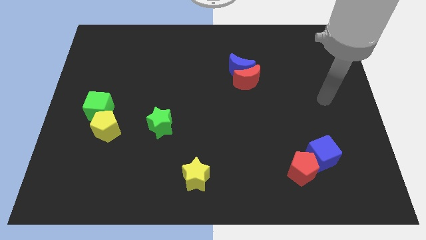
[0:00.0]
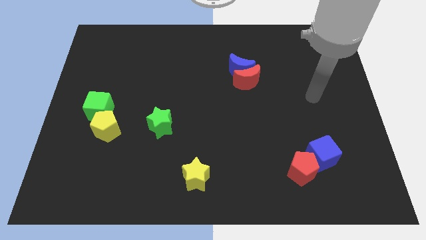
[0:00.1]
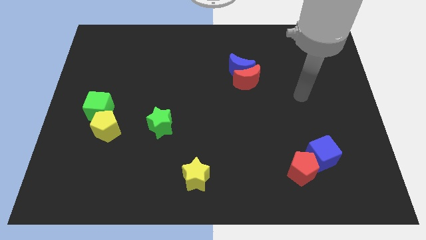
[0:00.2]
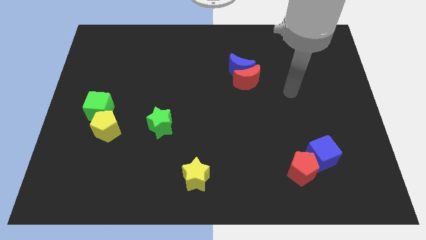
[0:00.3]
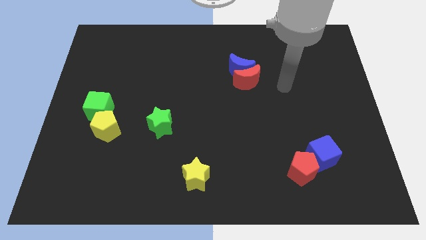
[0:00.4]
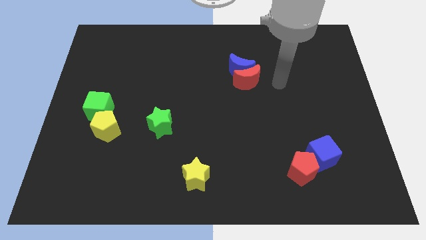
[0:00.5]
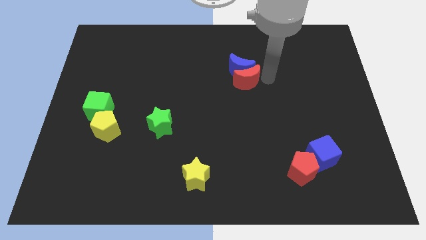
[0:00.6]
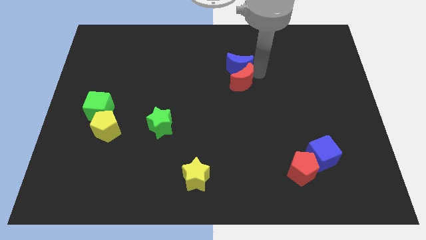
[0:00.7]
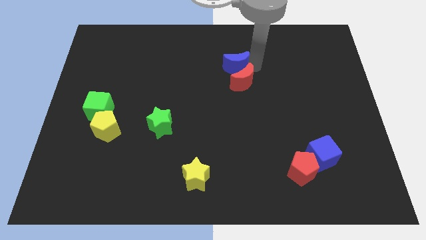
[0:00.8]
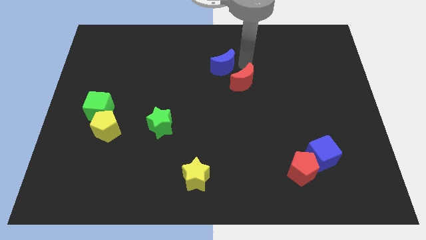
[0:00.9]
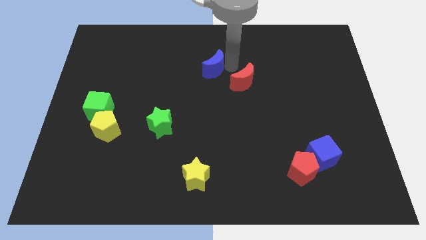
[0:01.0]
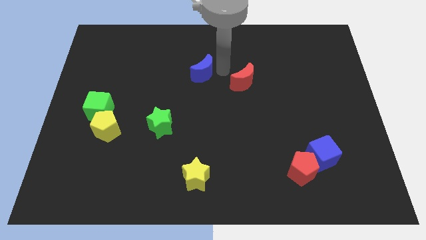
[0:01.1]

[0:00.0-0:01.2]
pull the red moon apart from the blue moon

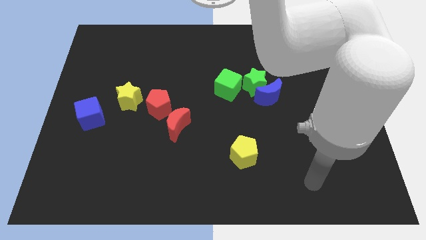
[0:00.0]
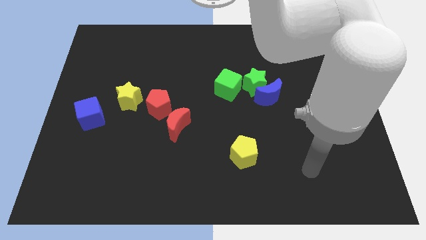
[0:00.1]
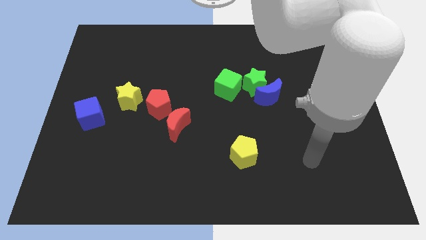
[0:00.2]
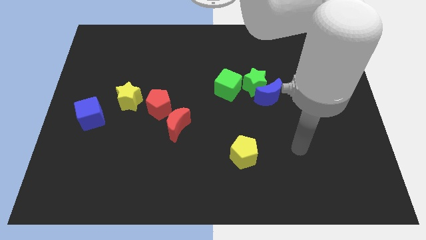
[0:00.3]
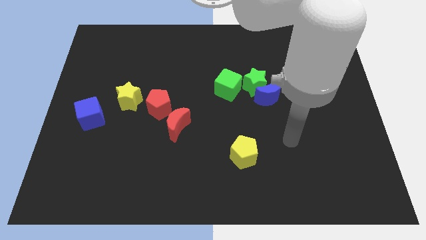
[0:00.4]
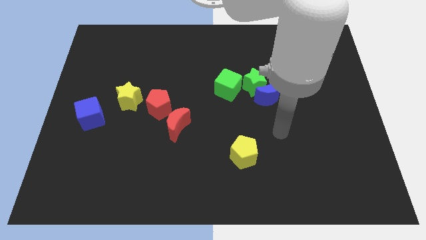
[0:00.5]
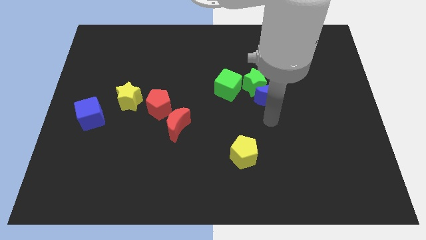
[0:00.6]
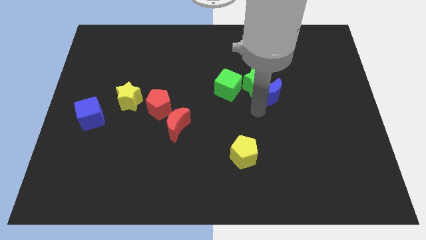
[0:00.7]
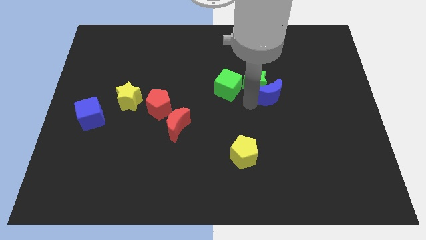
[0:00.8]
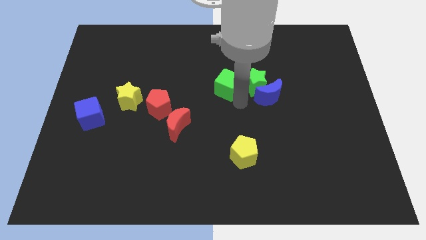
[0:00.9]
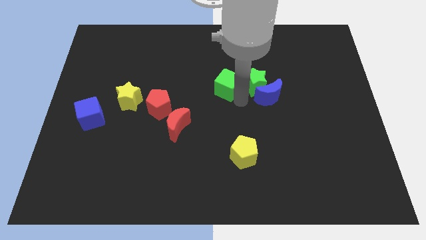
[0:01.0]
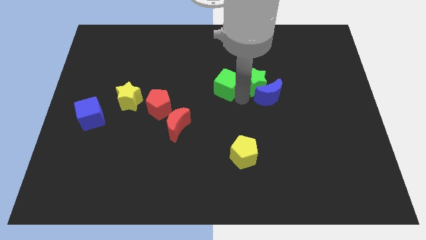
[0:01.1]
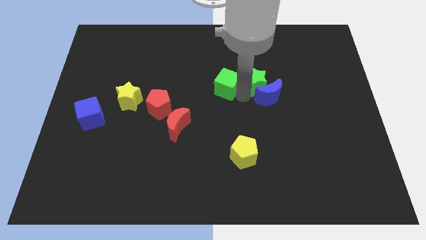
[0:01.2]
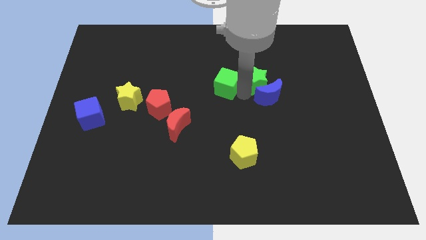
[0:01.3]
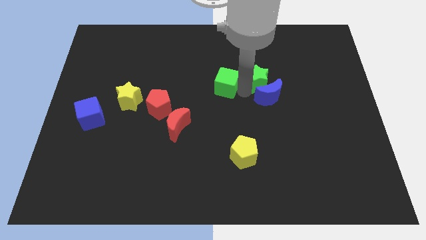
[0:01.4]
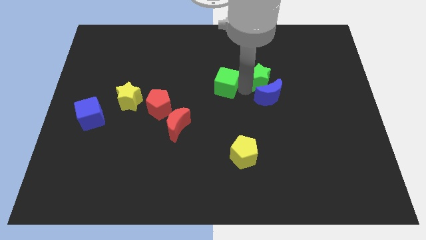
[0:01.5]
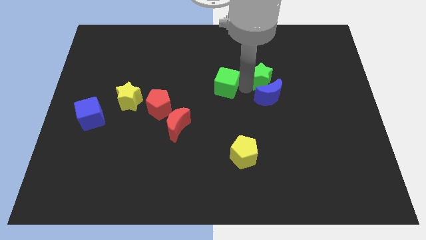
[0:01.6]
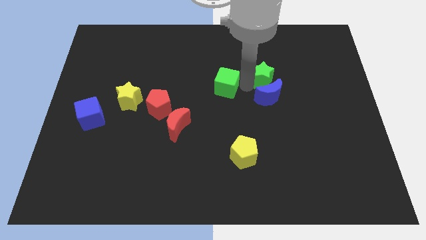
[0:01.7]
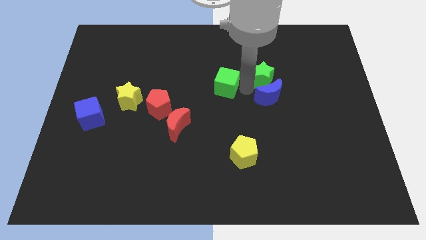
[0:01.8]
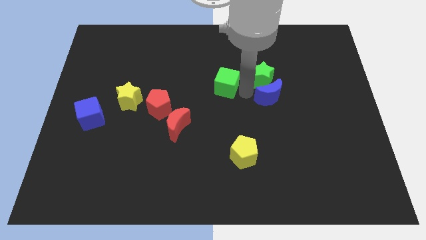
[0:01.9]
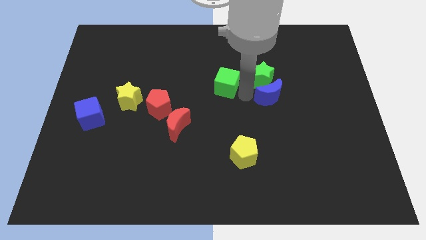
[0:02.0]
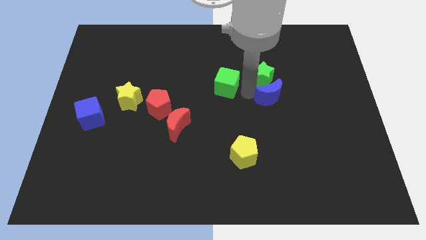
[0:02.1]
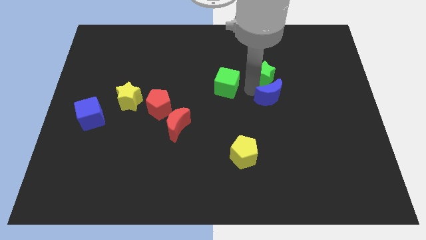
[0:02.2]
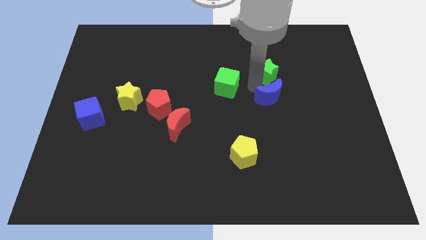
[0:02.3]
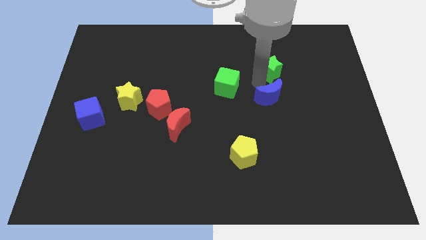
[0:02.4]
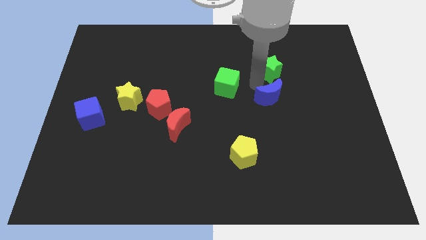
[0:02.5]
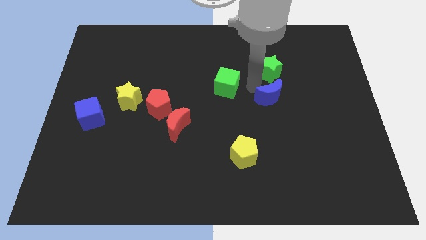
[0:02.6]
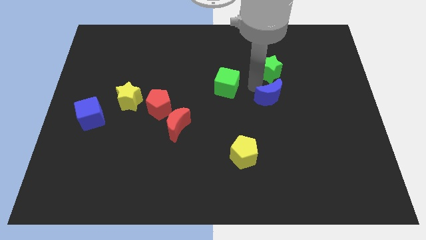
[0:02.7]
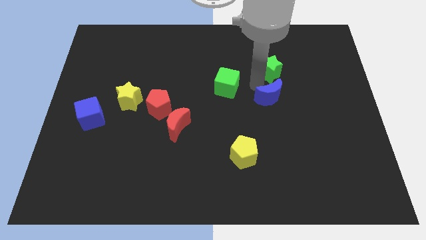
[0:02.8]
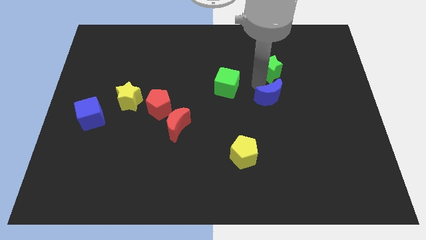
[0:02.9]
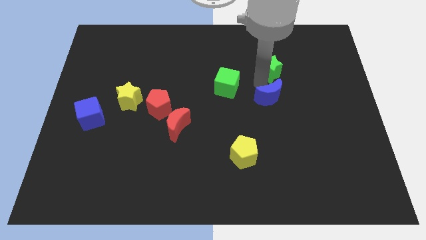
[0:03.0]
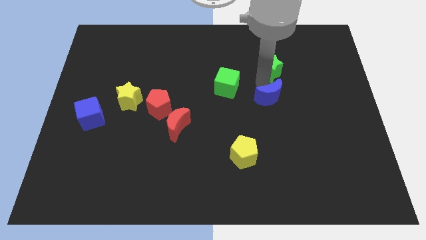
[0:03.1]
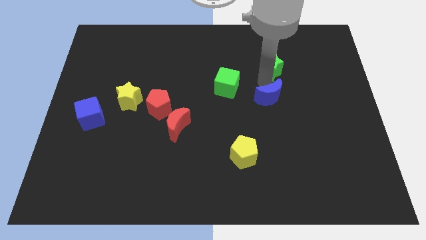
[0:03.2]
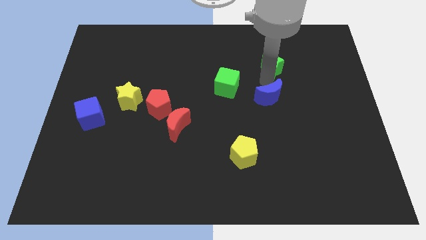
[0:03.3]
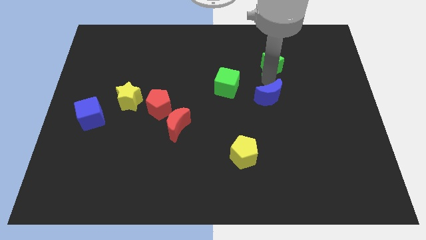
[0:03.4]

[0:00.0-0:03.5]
move the green star away from the blue moon and green cube

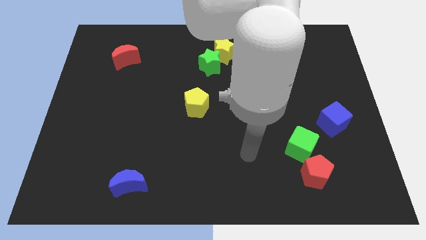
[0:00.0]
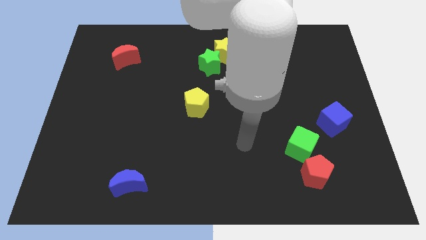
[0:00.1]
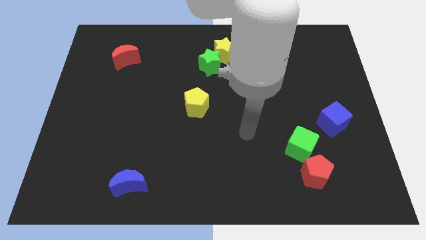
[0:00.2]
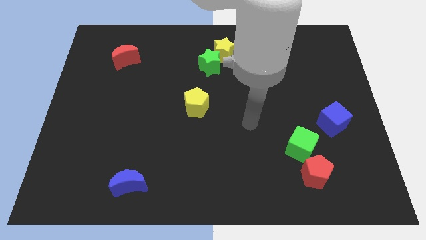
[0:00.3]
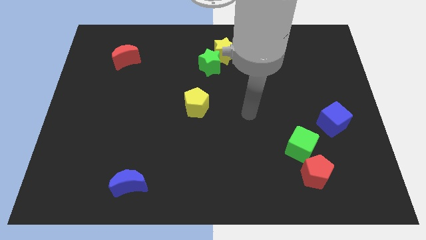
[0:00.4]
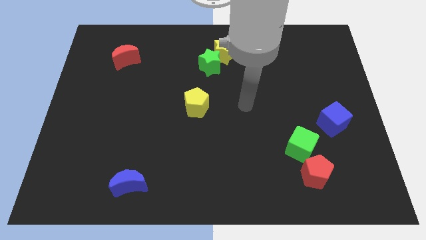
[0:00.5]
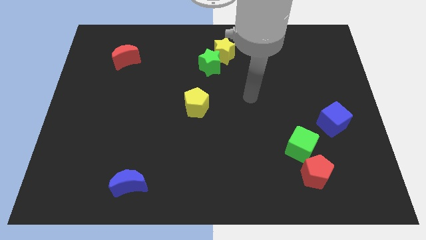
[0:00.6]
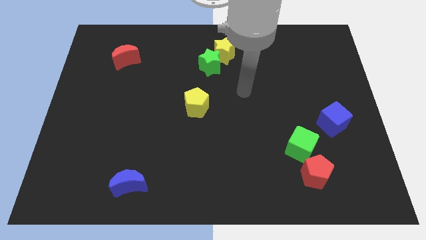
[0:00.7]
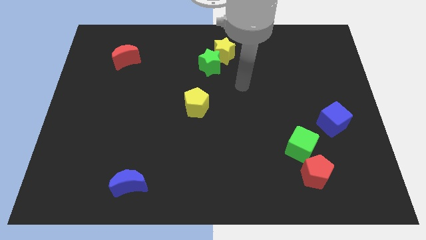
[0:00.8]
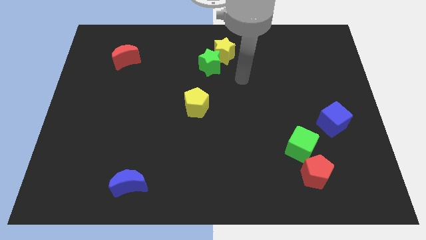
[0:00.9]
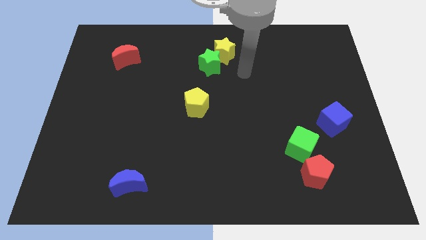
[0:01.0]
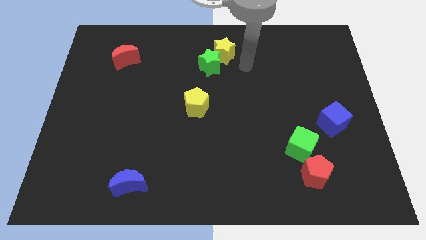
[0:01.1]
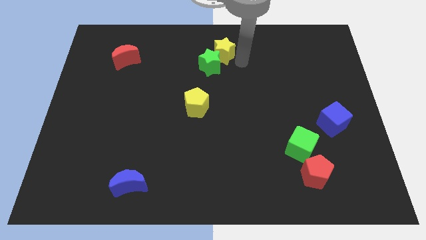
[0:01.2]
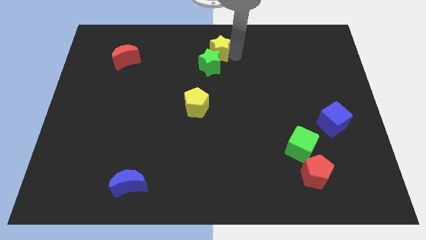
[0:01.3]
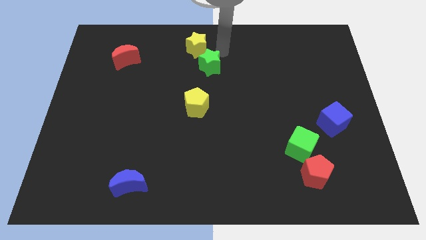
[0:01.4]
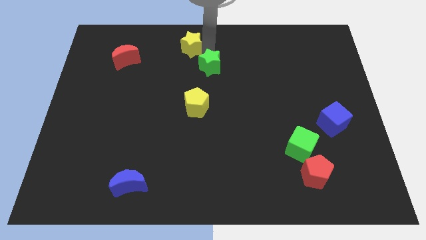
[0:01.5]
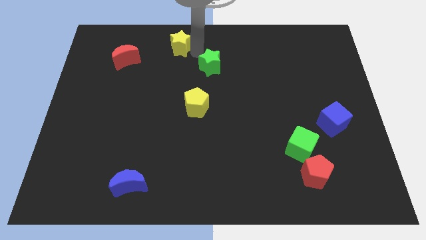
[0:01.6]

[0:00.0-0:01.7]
move the green star away from the yellow star

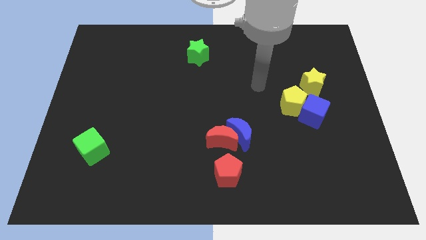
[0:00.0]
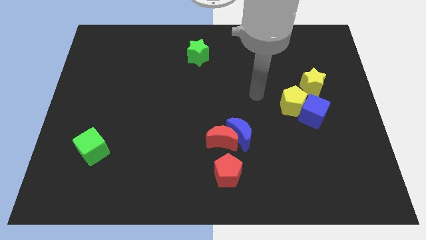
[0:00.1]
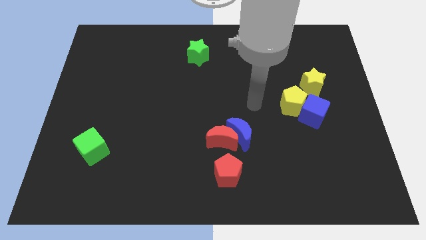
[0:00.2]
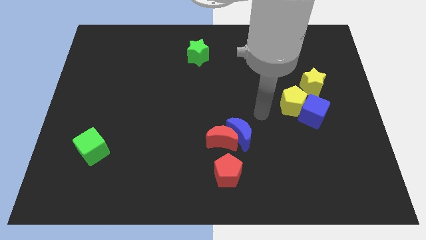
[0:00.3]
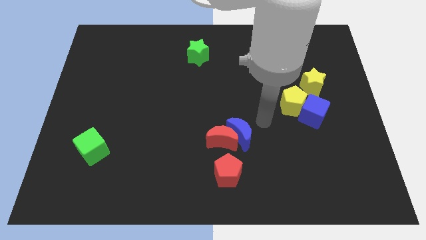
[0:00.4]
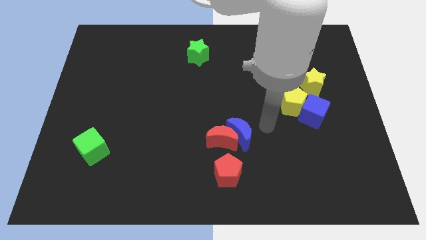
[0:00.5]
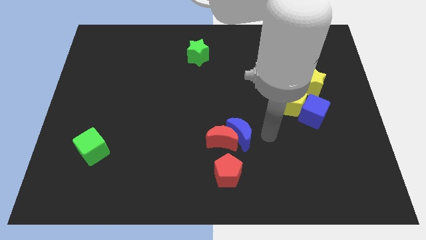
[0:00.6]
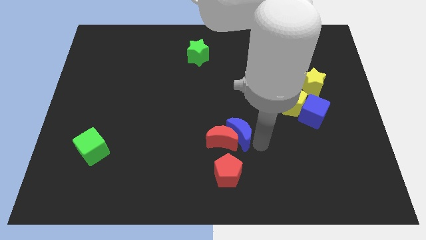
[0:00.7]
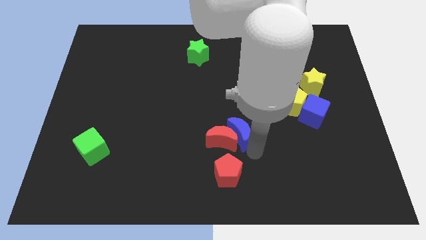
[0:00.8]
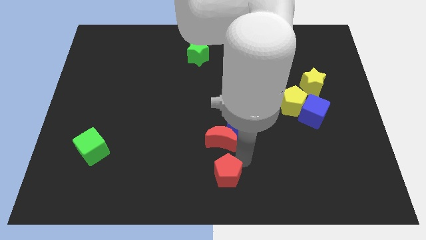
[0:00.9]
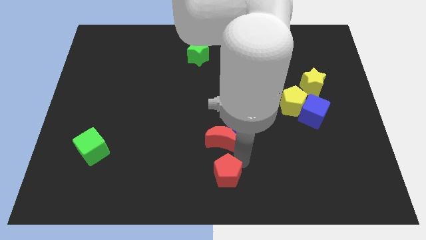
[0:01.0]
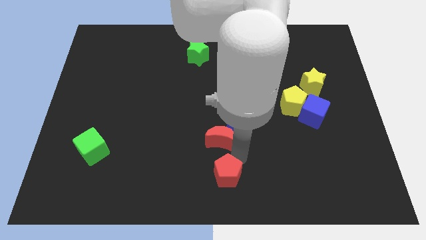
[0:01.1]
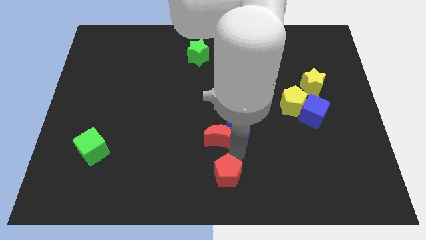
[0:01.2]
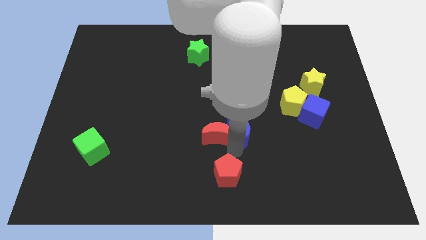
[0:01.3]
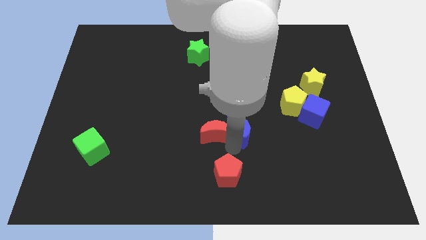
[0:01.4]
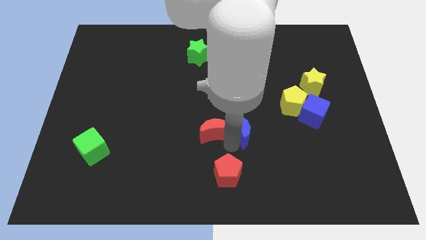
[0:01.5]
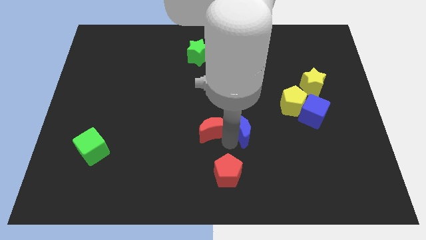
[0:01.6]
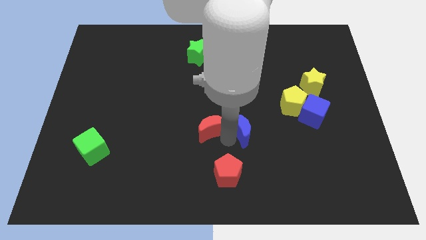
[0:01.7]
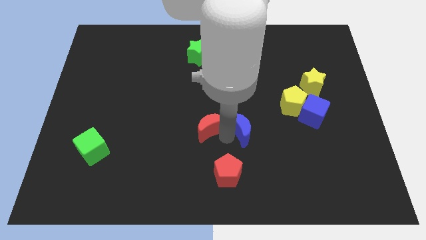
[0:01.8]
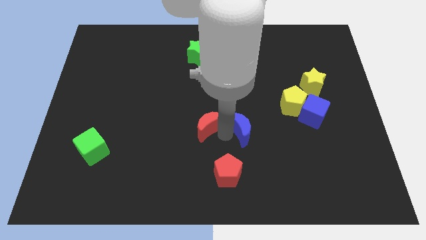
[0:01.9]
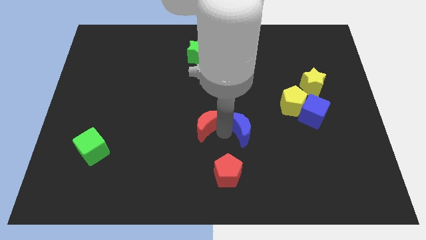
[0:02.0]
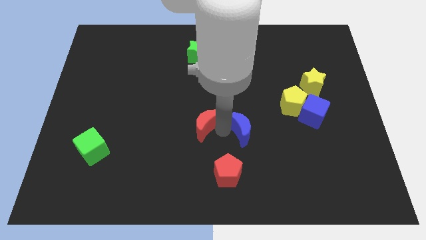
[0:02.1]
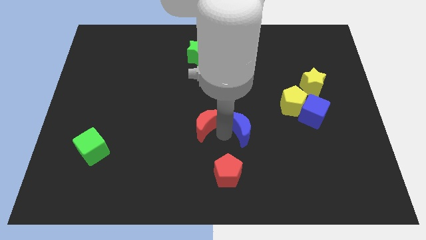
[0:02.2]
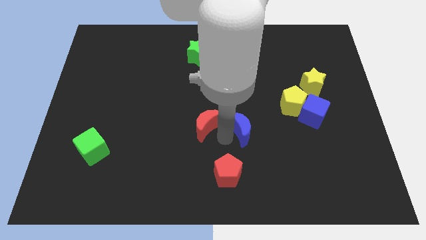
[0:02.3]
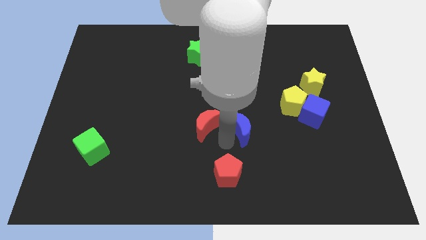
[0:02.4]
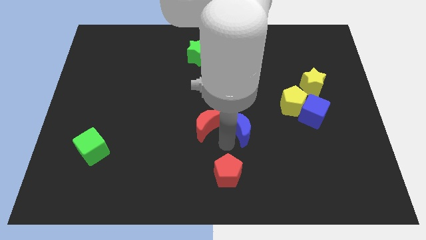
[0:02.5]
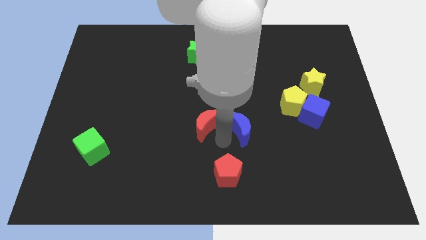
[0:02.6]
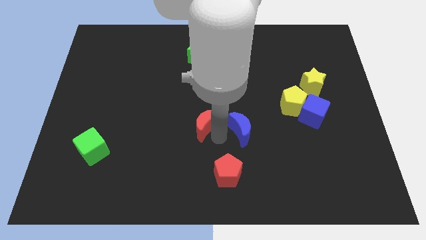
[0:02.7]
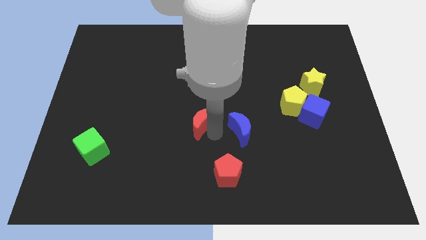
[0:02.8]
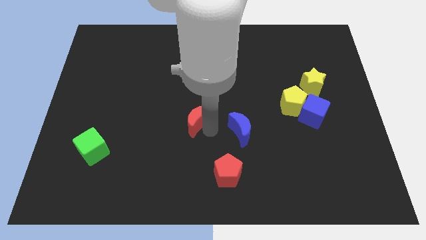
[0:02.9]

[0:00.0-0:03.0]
separate the red moon from the blue moon and red pentagon
